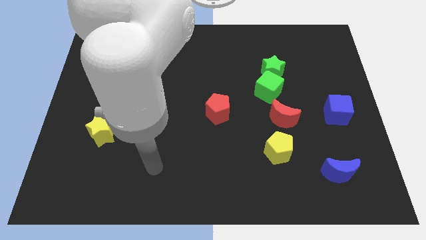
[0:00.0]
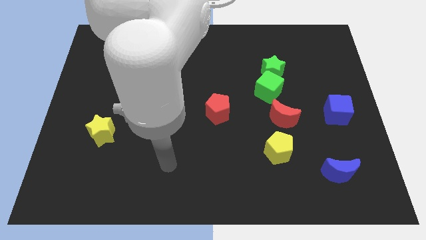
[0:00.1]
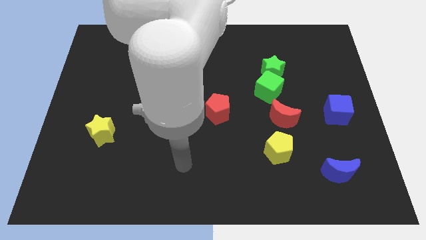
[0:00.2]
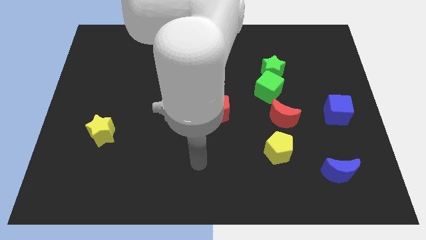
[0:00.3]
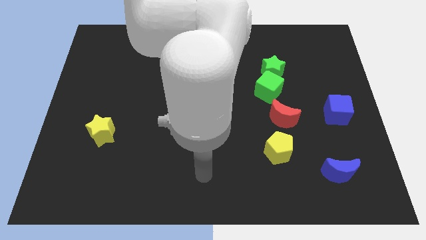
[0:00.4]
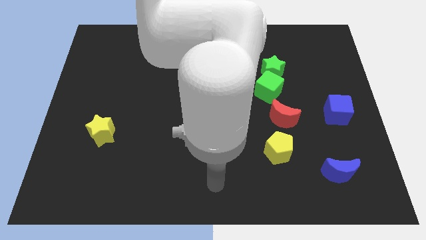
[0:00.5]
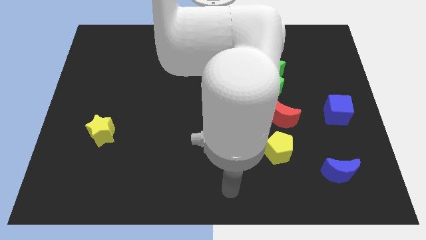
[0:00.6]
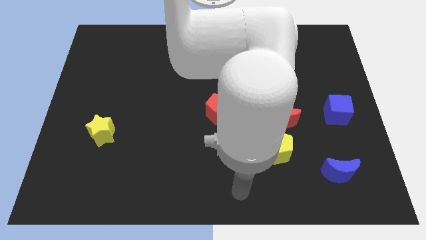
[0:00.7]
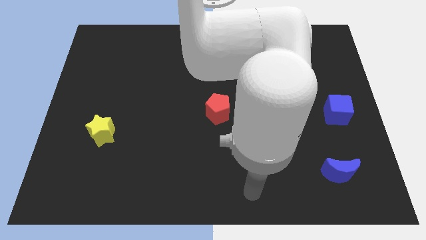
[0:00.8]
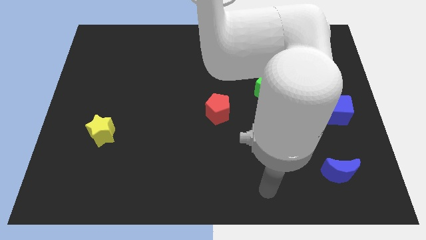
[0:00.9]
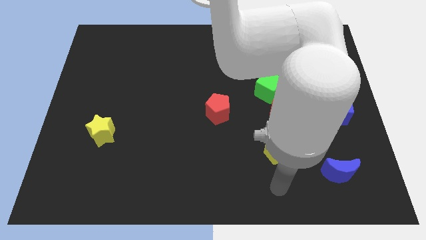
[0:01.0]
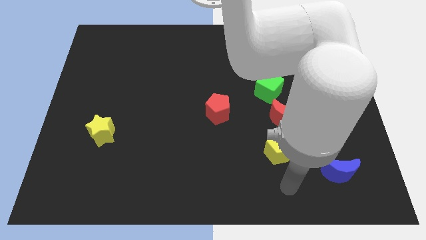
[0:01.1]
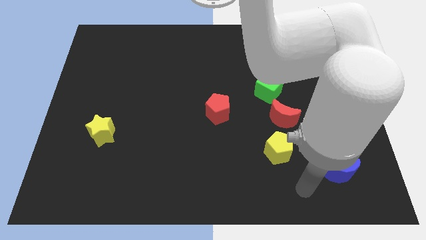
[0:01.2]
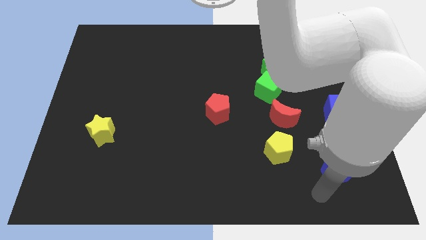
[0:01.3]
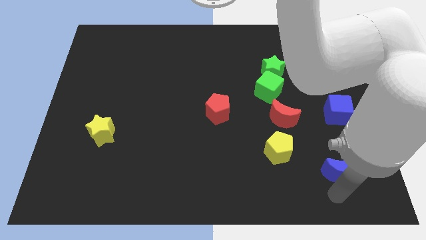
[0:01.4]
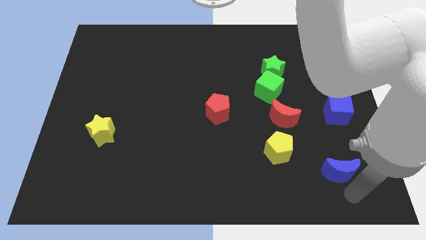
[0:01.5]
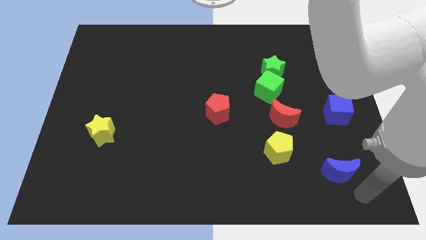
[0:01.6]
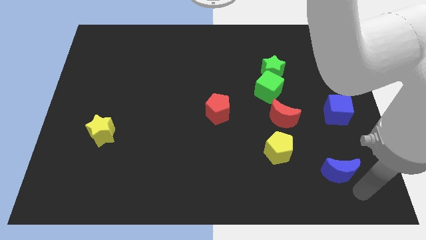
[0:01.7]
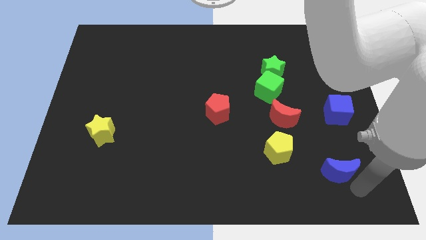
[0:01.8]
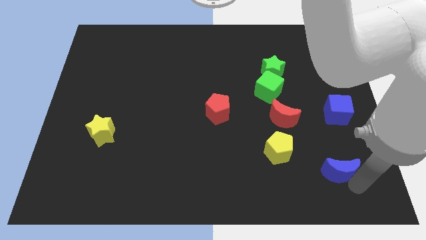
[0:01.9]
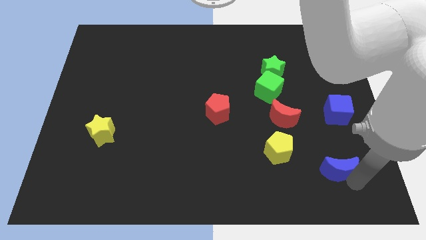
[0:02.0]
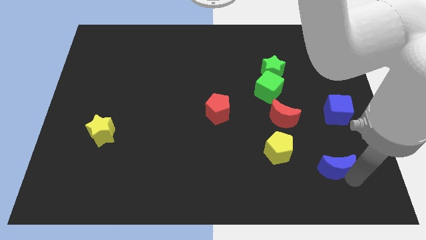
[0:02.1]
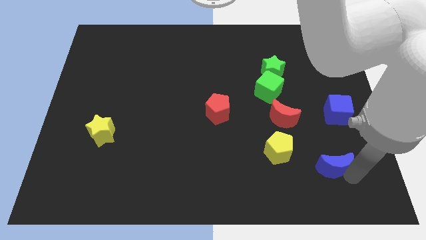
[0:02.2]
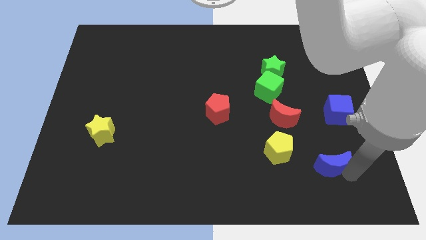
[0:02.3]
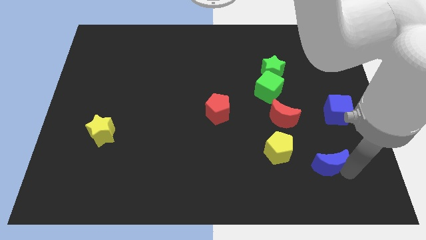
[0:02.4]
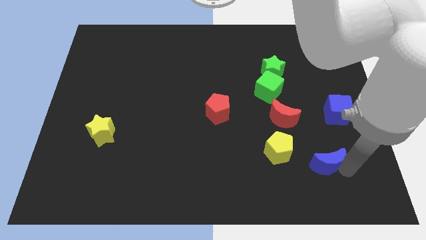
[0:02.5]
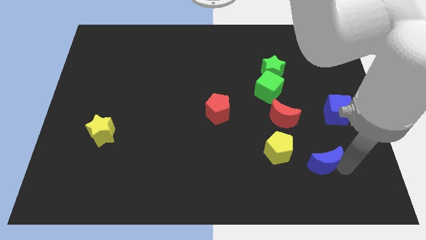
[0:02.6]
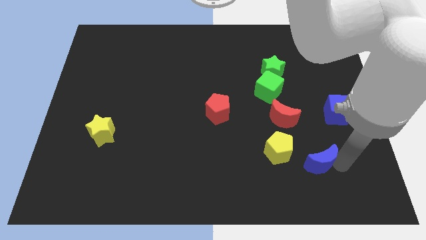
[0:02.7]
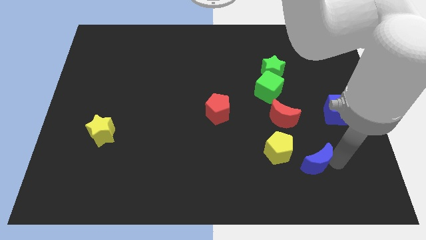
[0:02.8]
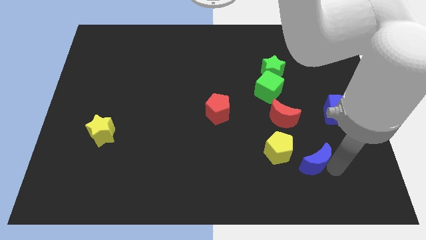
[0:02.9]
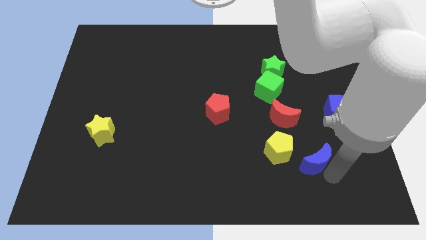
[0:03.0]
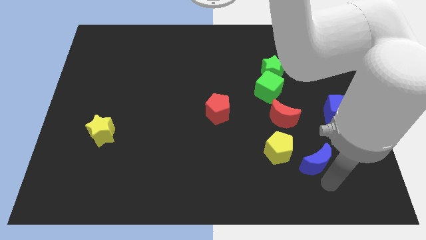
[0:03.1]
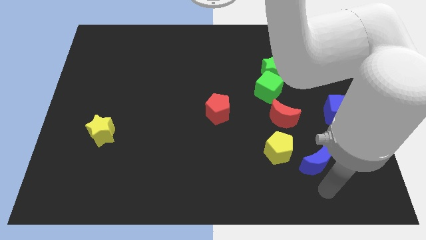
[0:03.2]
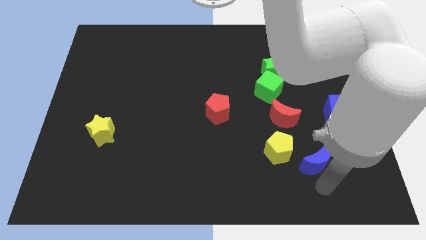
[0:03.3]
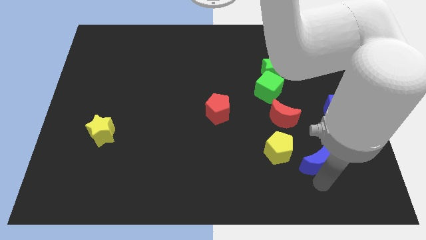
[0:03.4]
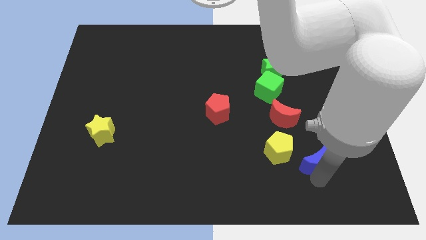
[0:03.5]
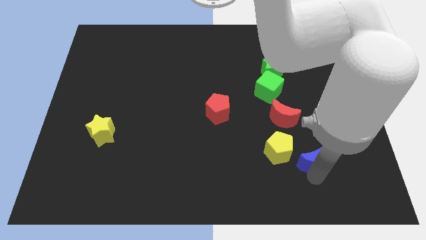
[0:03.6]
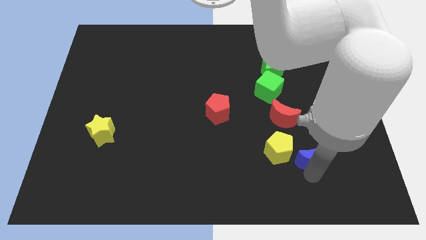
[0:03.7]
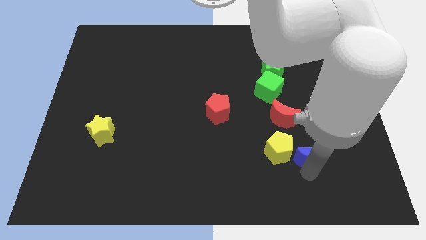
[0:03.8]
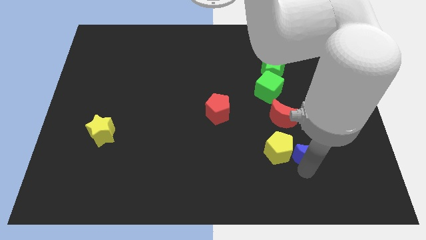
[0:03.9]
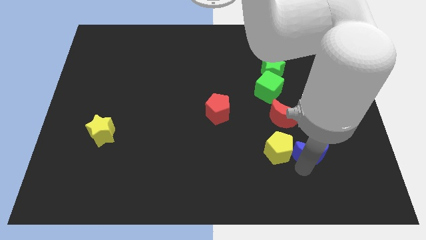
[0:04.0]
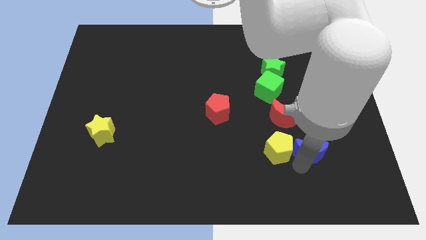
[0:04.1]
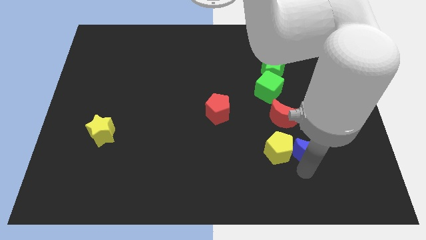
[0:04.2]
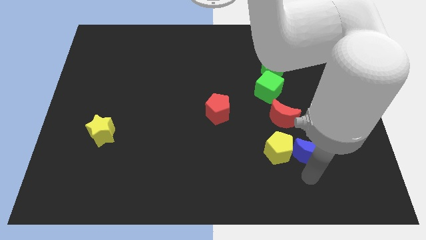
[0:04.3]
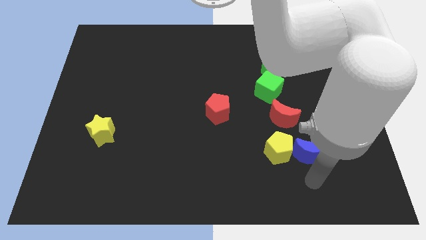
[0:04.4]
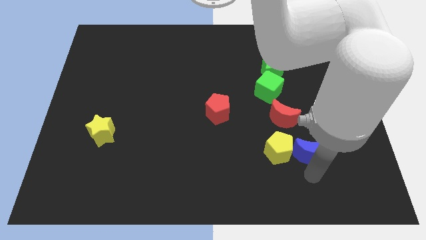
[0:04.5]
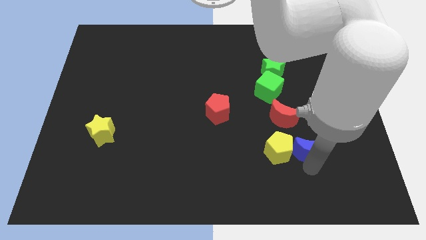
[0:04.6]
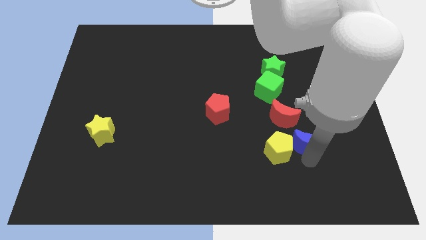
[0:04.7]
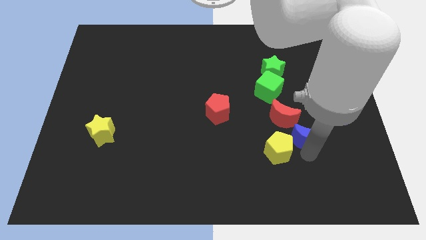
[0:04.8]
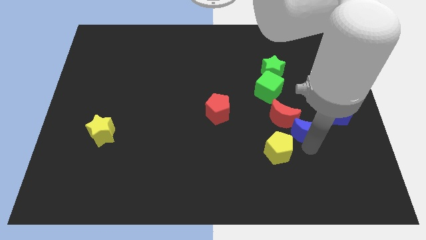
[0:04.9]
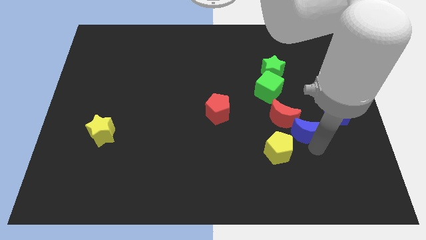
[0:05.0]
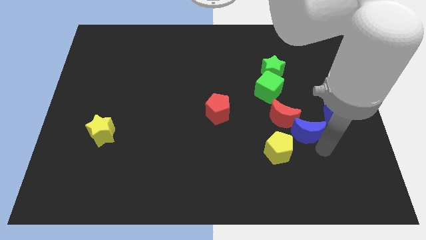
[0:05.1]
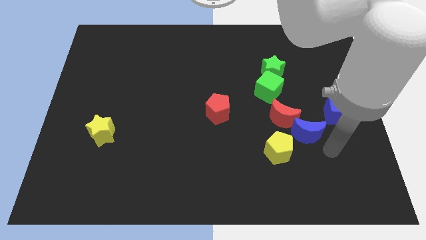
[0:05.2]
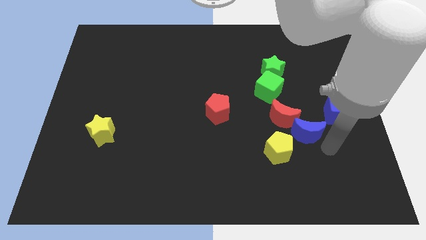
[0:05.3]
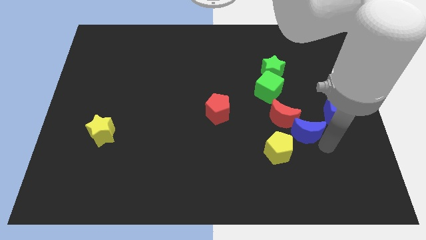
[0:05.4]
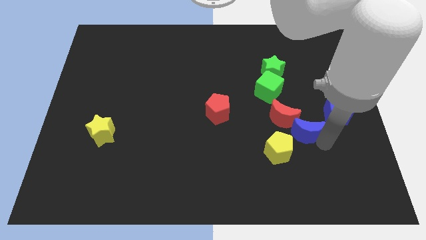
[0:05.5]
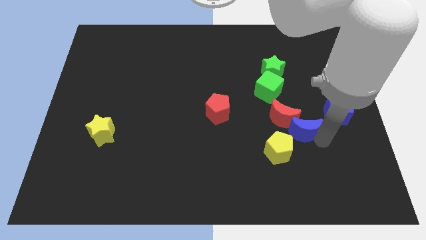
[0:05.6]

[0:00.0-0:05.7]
move the blue moon towards the red moon

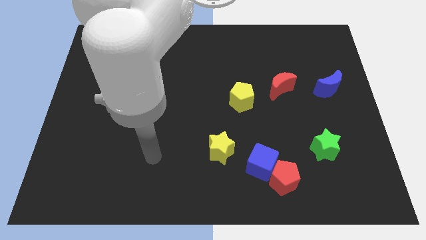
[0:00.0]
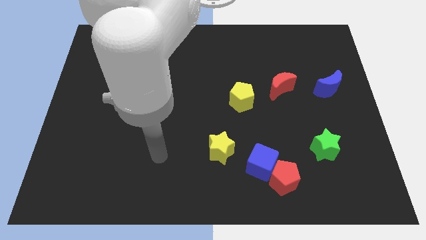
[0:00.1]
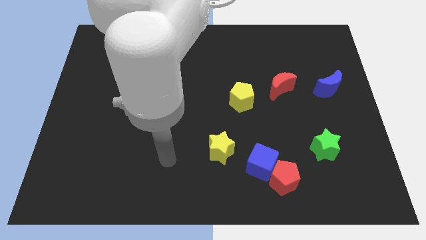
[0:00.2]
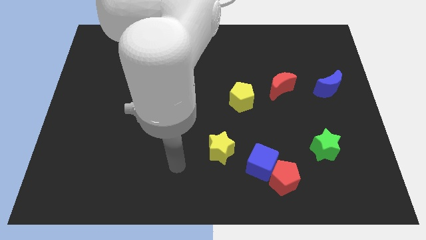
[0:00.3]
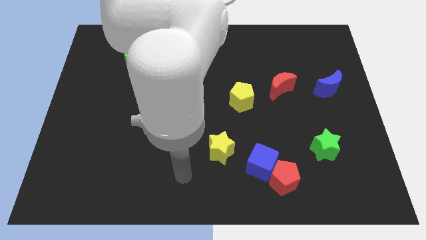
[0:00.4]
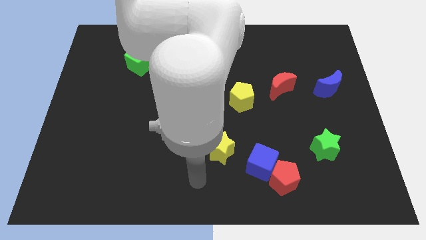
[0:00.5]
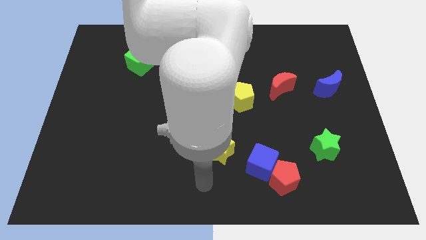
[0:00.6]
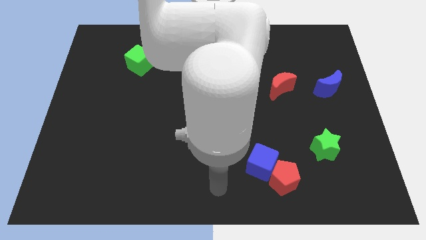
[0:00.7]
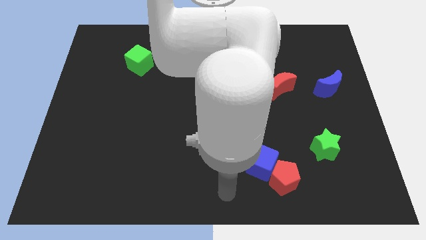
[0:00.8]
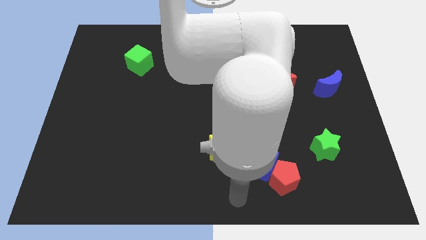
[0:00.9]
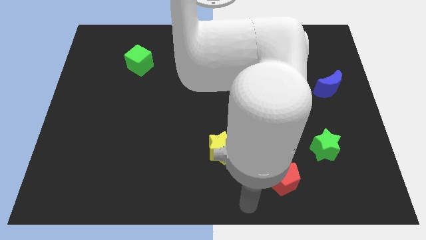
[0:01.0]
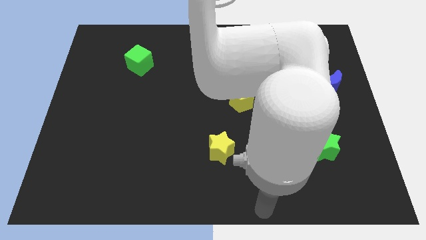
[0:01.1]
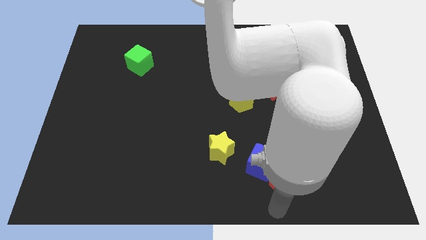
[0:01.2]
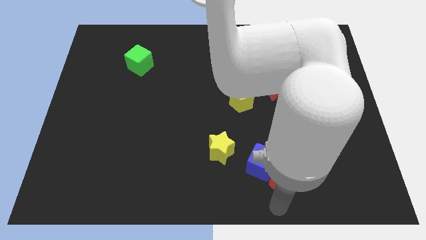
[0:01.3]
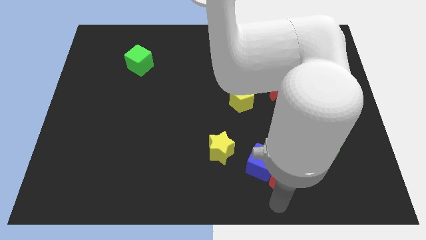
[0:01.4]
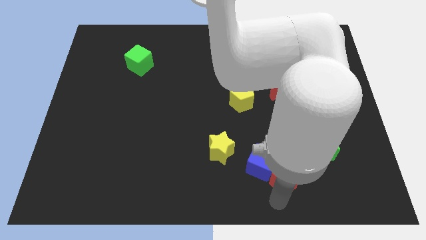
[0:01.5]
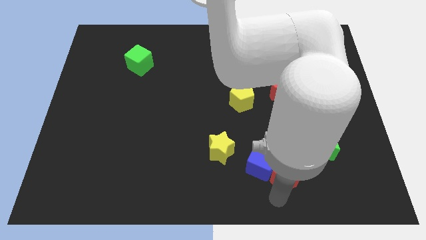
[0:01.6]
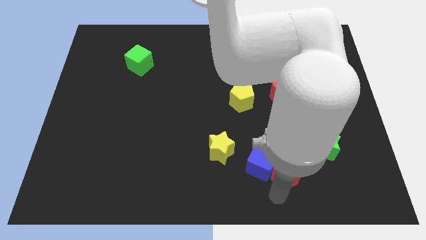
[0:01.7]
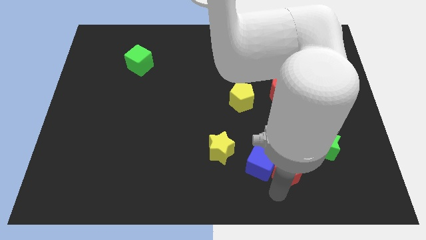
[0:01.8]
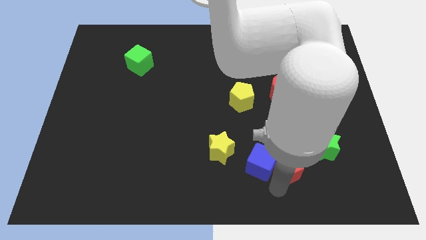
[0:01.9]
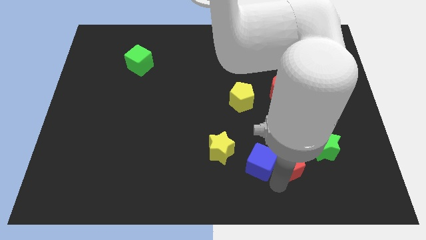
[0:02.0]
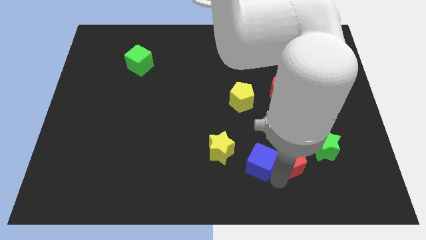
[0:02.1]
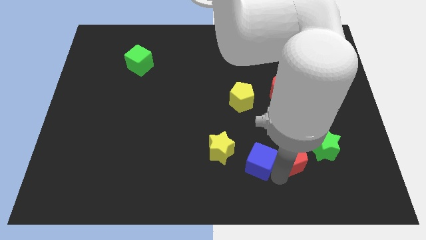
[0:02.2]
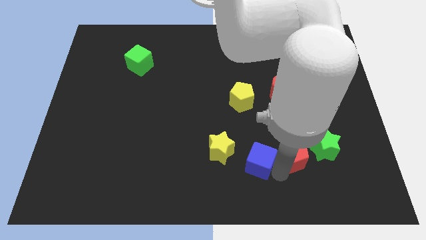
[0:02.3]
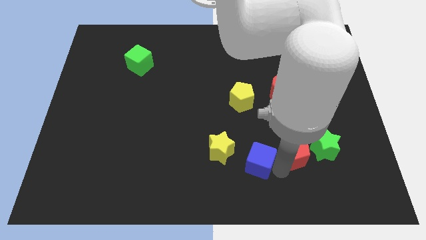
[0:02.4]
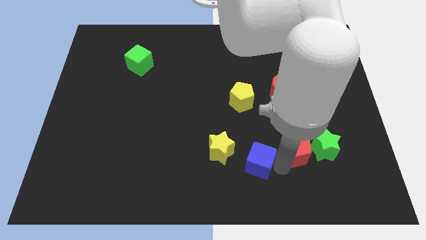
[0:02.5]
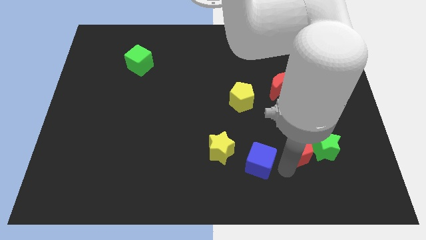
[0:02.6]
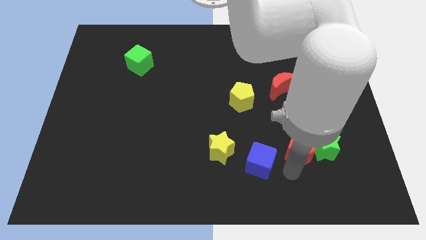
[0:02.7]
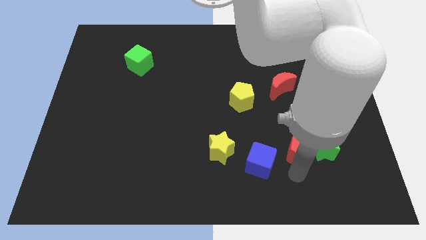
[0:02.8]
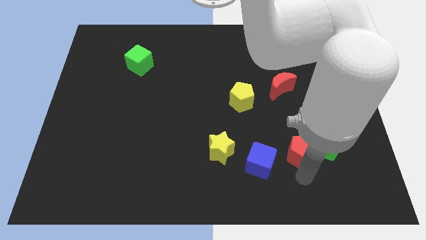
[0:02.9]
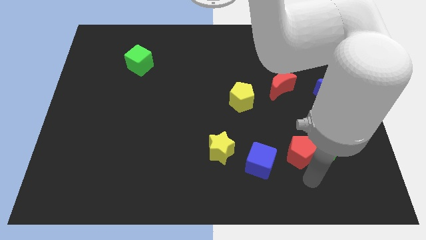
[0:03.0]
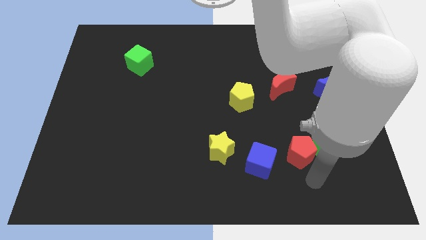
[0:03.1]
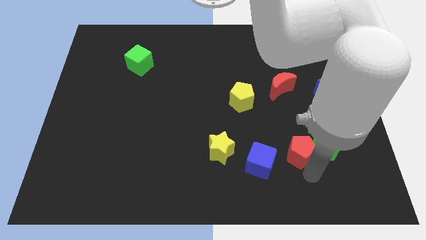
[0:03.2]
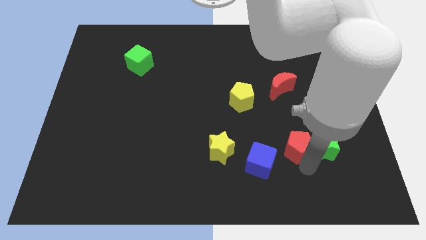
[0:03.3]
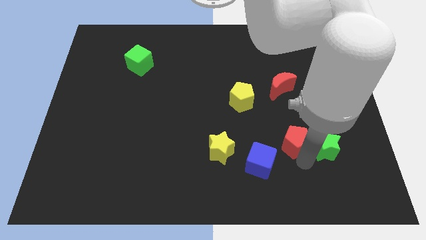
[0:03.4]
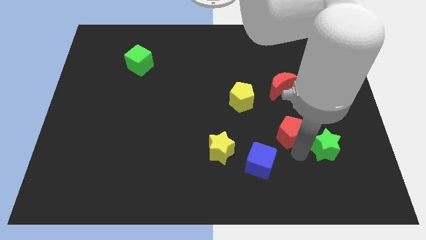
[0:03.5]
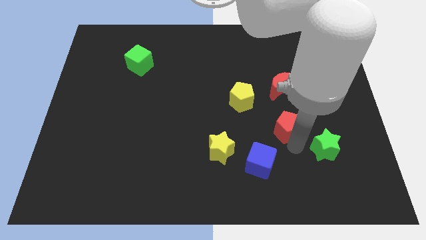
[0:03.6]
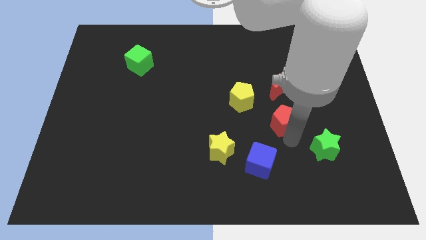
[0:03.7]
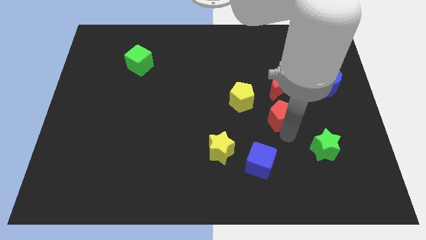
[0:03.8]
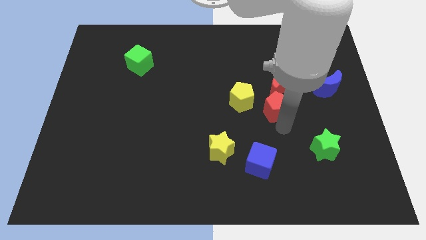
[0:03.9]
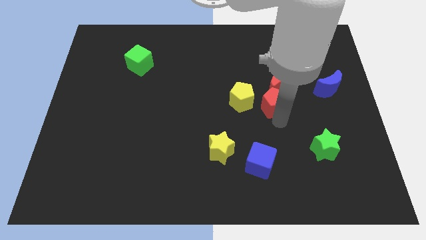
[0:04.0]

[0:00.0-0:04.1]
put the red pentagon to the red moon
